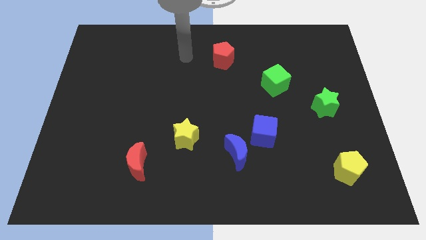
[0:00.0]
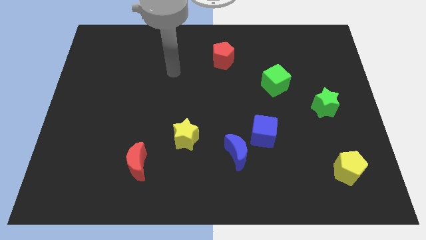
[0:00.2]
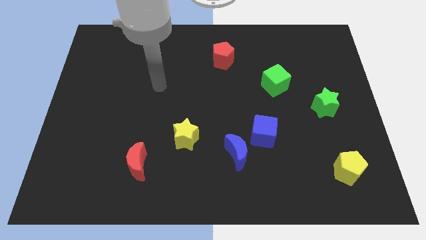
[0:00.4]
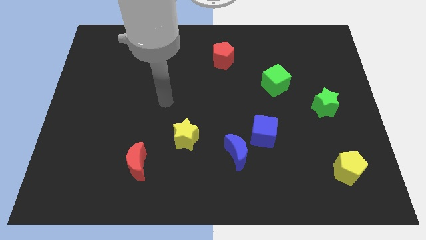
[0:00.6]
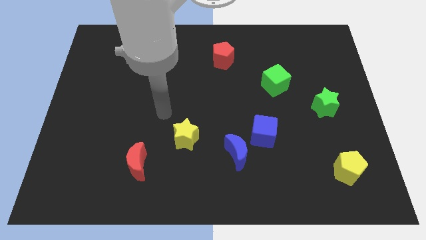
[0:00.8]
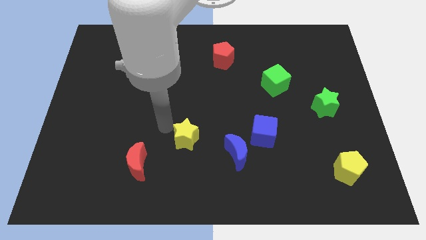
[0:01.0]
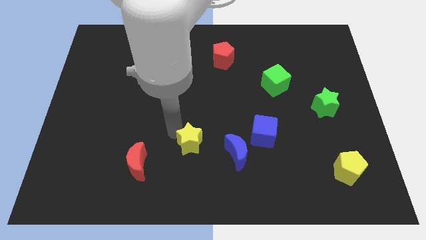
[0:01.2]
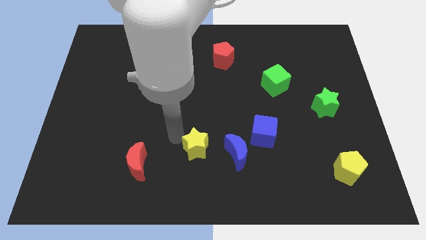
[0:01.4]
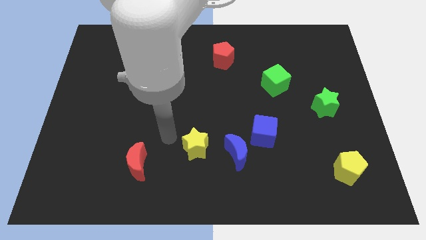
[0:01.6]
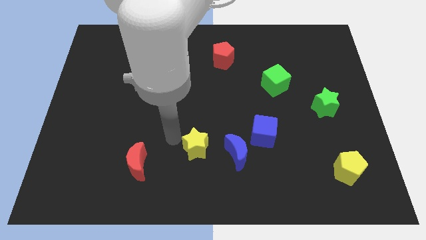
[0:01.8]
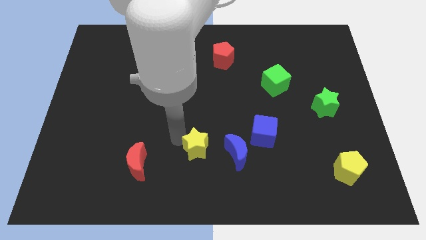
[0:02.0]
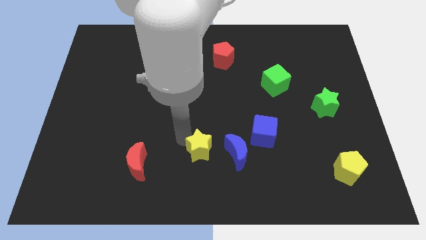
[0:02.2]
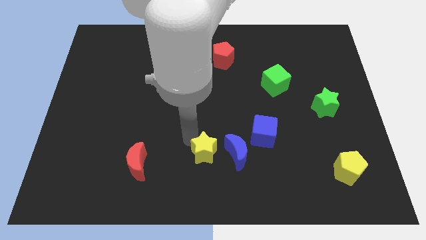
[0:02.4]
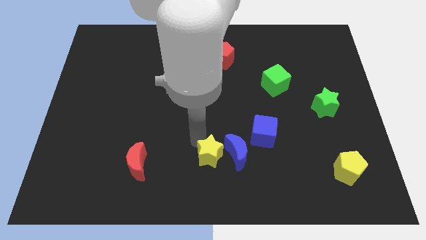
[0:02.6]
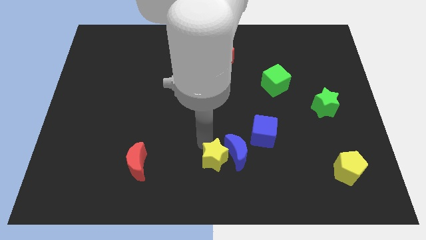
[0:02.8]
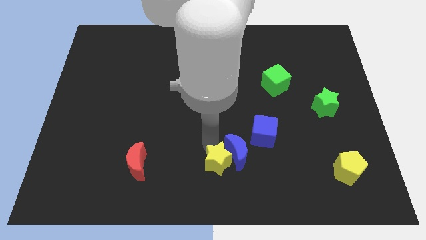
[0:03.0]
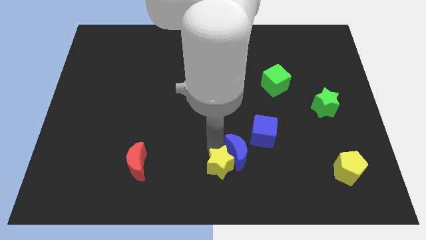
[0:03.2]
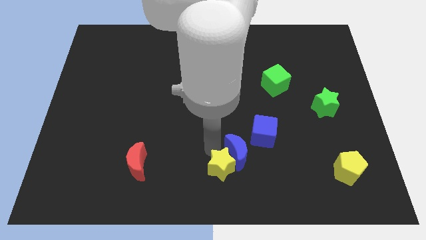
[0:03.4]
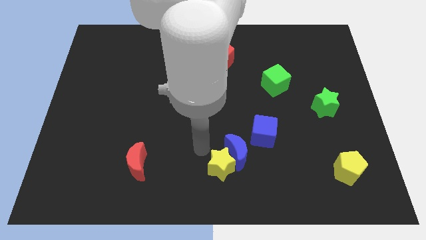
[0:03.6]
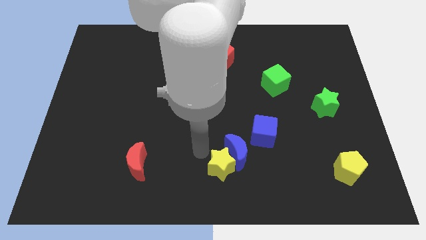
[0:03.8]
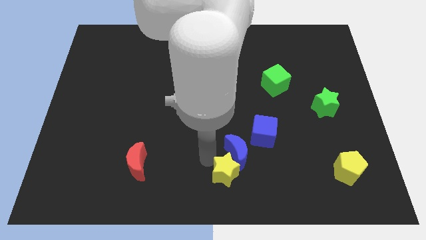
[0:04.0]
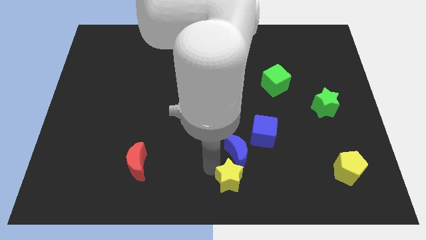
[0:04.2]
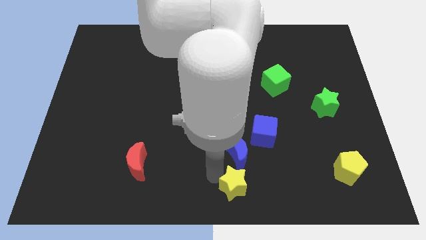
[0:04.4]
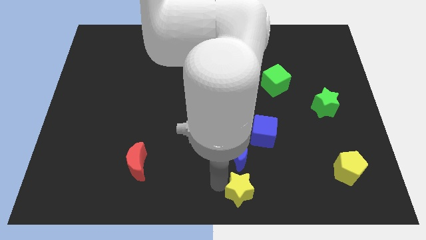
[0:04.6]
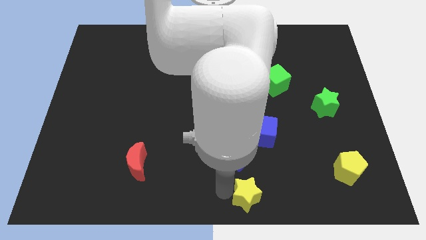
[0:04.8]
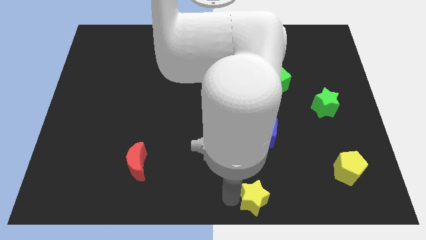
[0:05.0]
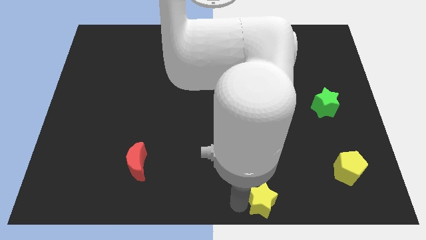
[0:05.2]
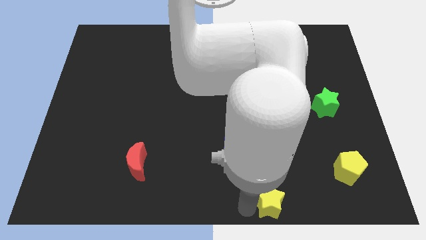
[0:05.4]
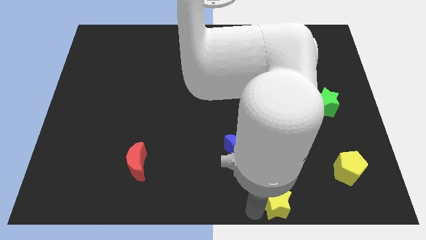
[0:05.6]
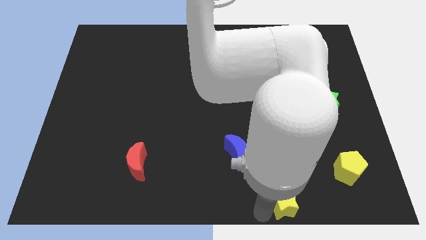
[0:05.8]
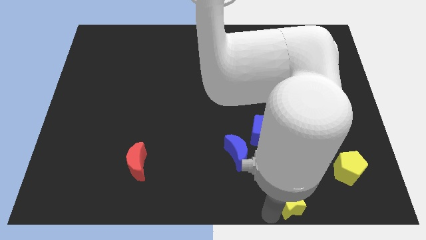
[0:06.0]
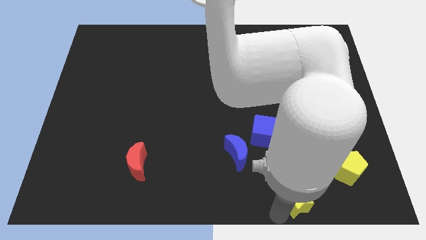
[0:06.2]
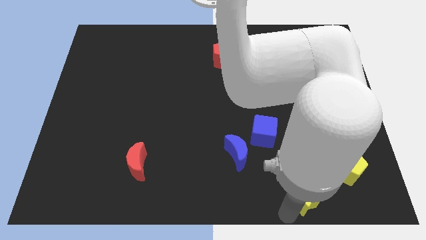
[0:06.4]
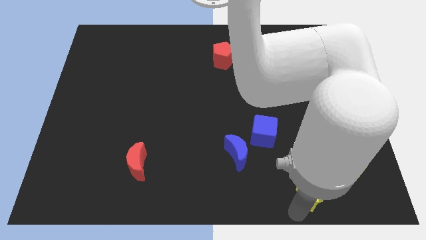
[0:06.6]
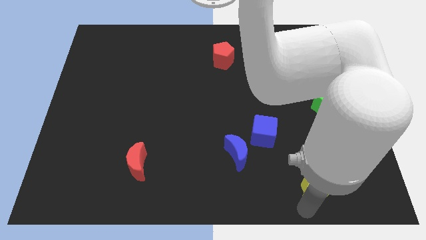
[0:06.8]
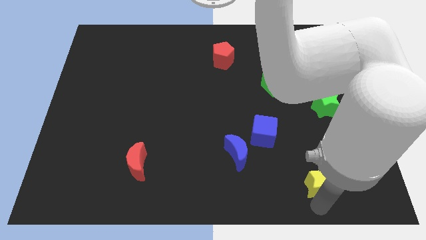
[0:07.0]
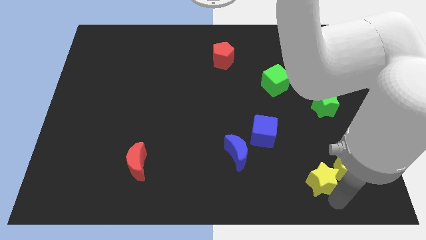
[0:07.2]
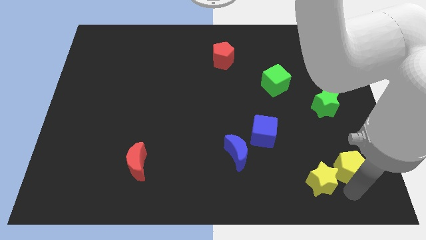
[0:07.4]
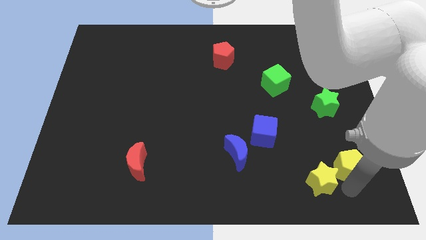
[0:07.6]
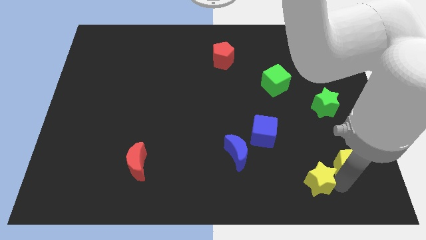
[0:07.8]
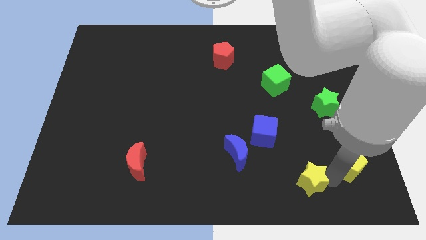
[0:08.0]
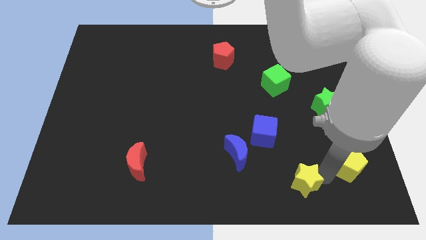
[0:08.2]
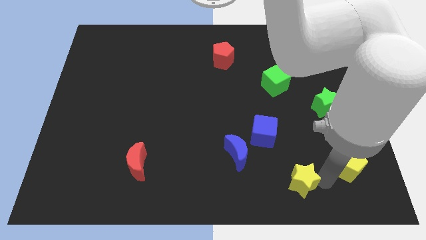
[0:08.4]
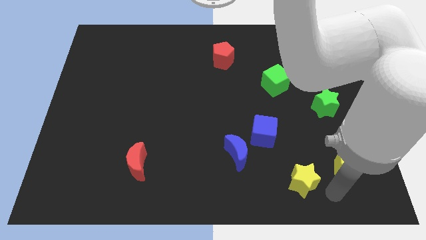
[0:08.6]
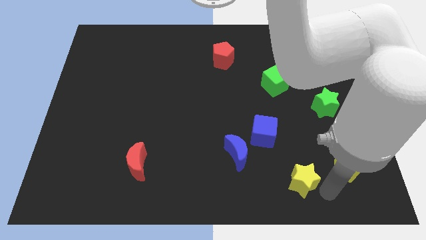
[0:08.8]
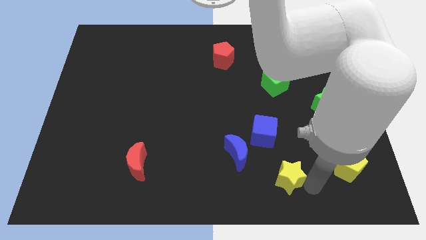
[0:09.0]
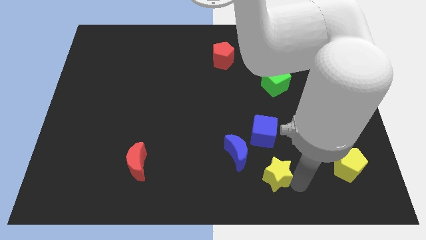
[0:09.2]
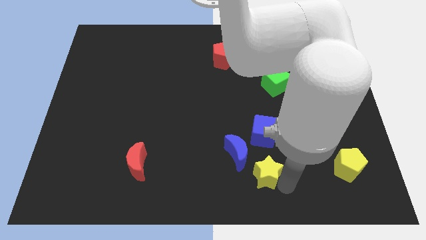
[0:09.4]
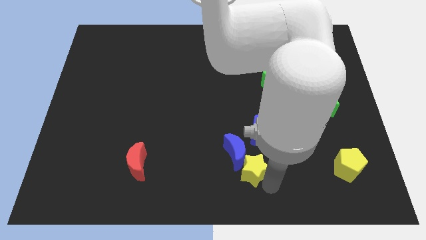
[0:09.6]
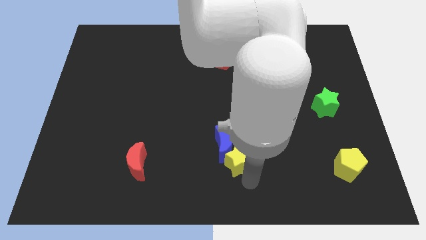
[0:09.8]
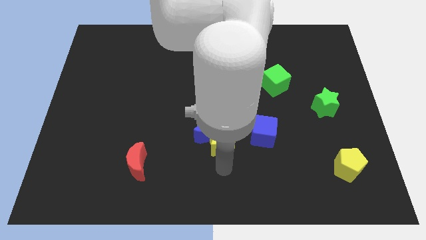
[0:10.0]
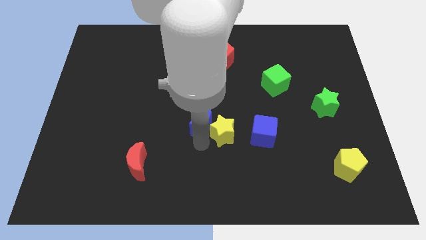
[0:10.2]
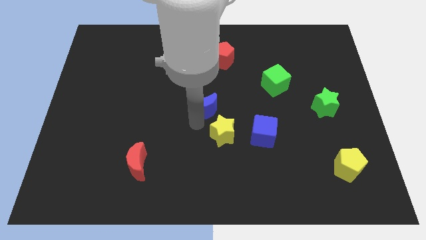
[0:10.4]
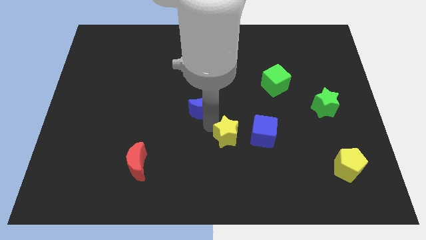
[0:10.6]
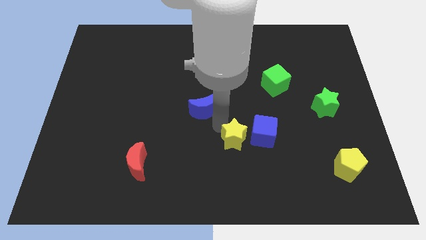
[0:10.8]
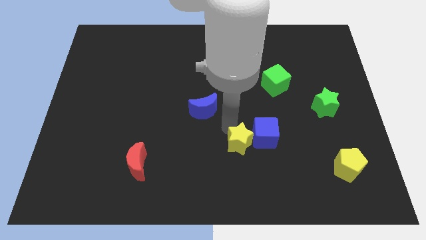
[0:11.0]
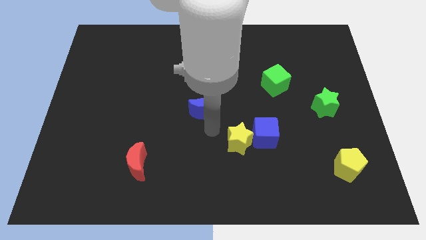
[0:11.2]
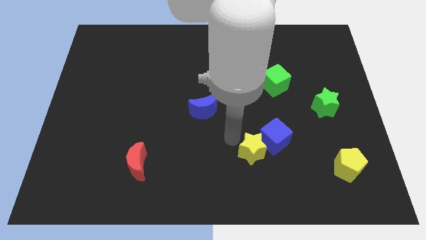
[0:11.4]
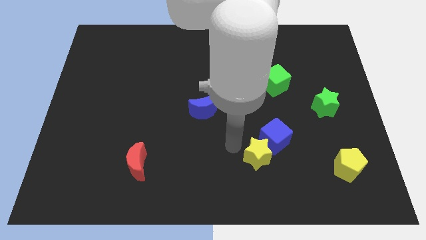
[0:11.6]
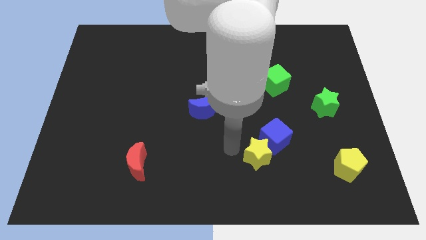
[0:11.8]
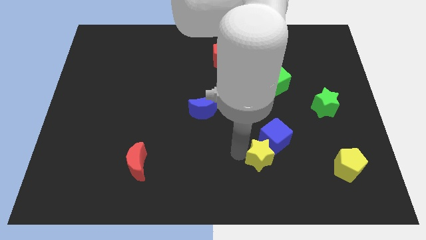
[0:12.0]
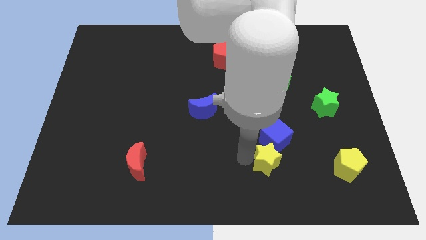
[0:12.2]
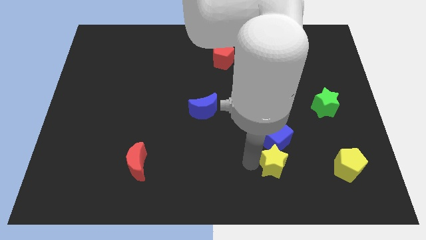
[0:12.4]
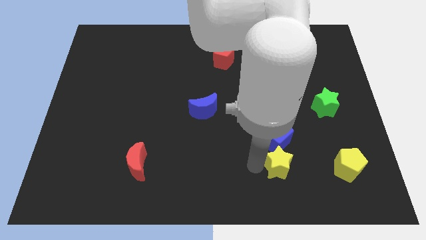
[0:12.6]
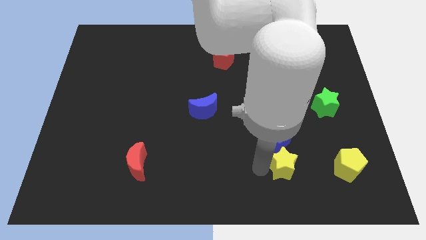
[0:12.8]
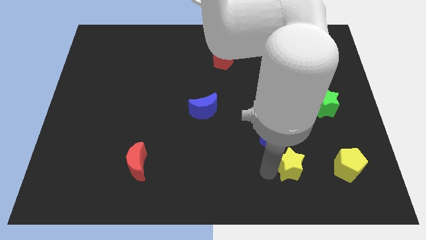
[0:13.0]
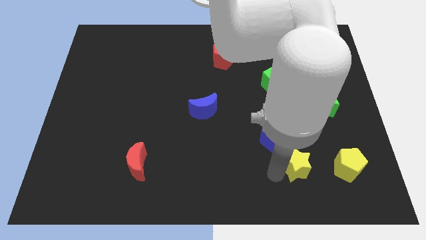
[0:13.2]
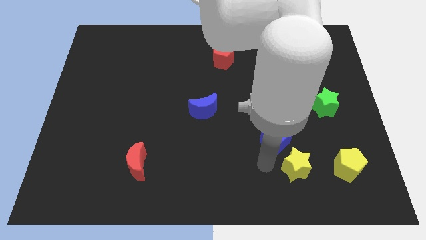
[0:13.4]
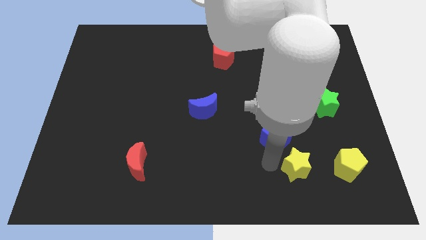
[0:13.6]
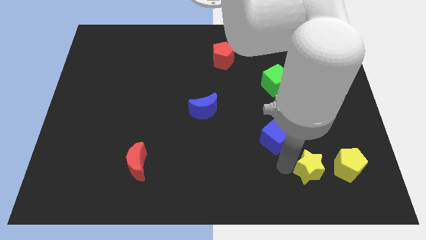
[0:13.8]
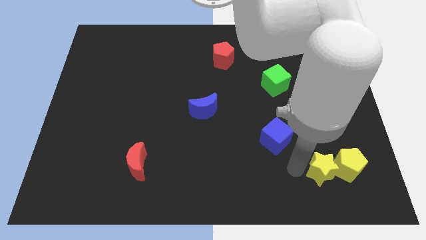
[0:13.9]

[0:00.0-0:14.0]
slide the yellow star close to the yellow pentagon

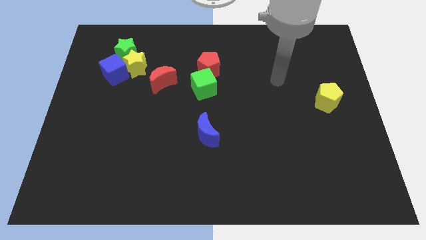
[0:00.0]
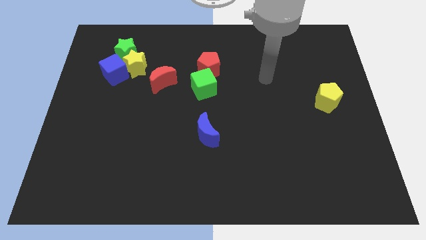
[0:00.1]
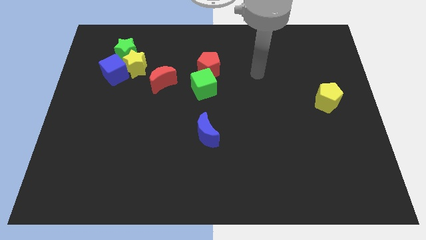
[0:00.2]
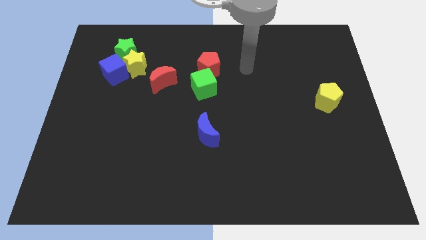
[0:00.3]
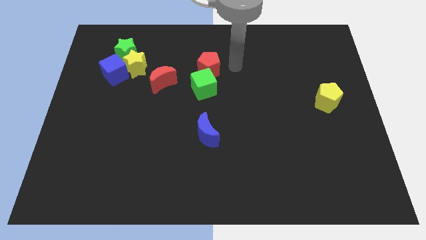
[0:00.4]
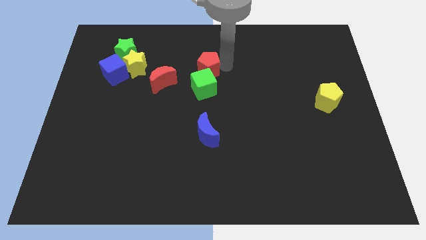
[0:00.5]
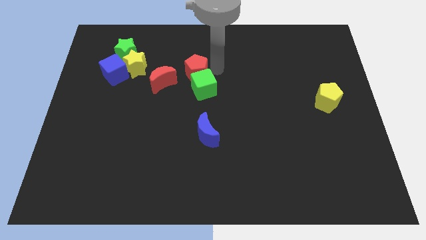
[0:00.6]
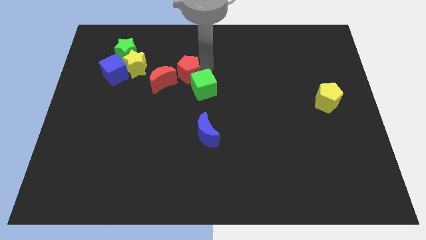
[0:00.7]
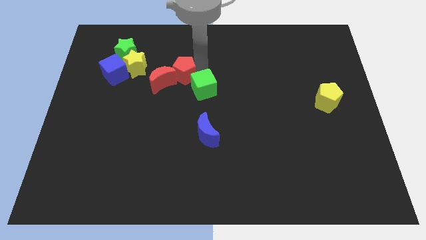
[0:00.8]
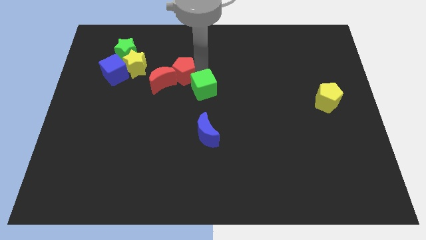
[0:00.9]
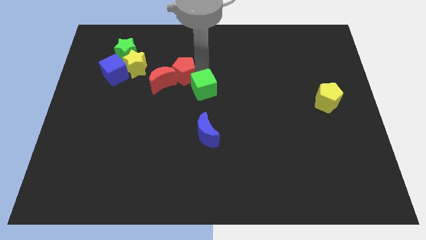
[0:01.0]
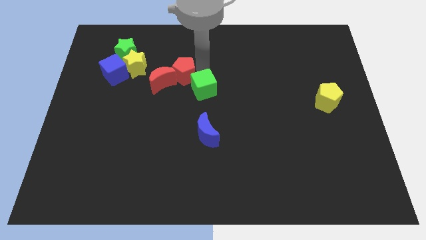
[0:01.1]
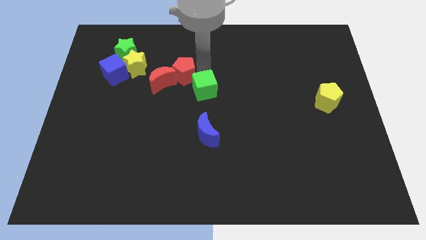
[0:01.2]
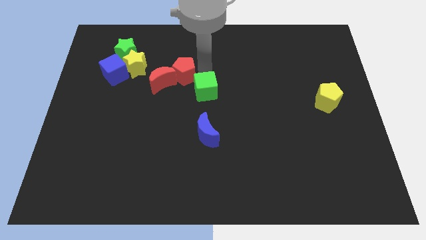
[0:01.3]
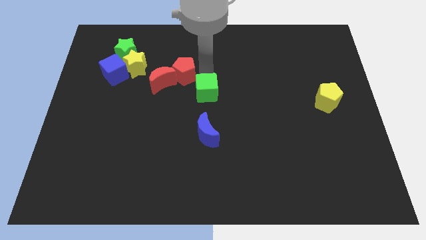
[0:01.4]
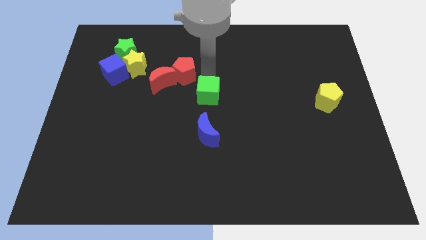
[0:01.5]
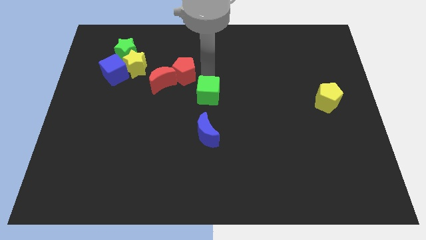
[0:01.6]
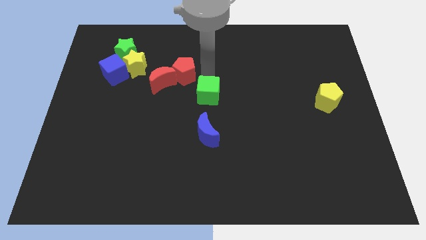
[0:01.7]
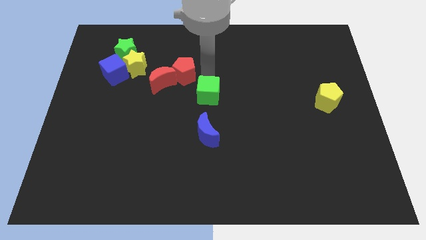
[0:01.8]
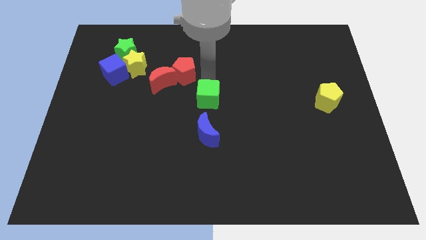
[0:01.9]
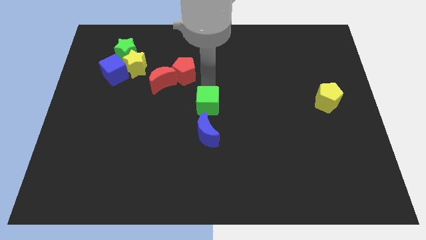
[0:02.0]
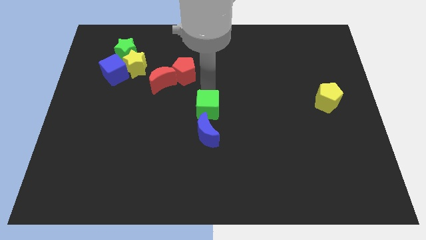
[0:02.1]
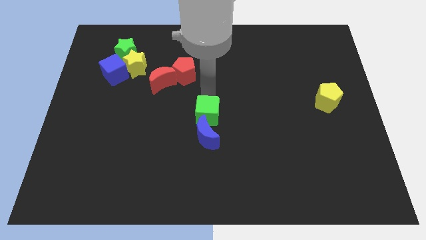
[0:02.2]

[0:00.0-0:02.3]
put the green cube next to the blue moon
